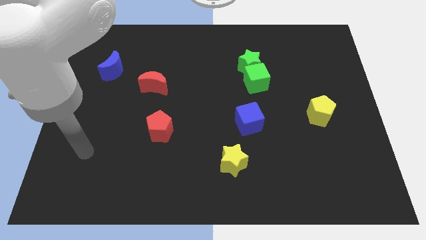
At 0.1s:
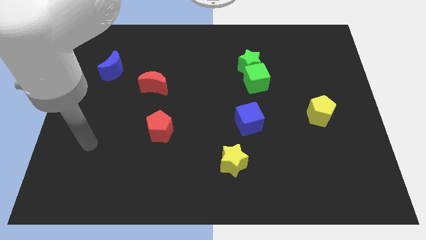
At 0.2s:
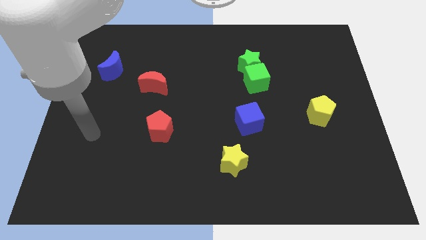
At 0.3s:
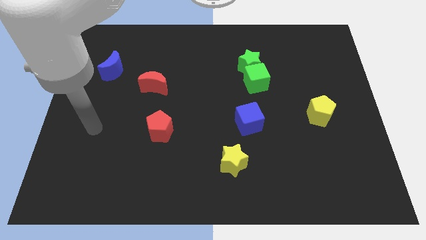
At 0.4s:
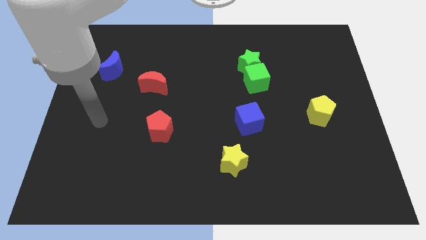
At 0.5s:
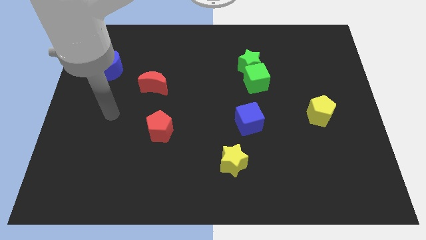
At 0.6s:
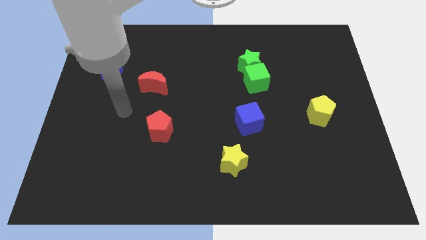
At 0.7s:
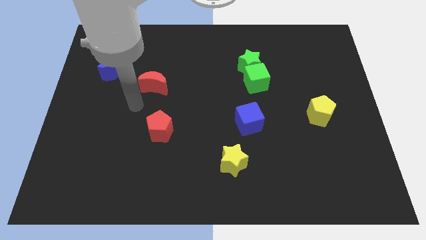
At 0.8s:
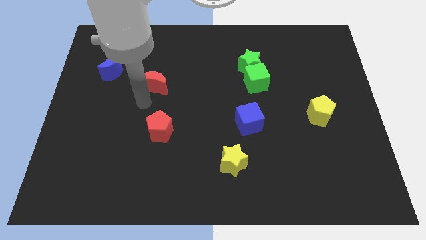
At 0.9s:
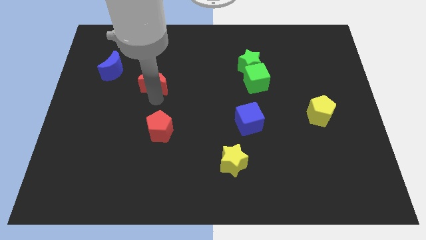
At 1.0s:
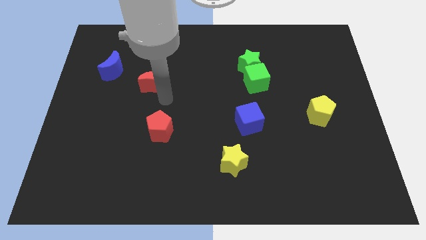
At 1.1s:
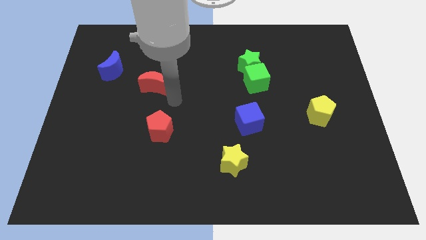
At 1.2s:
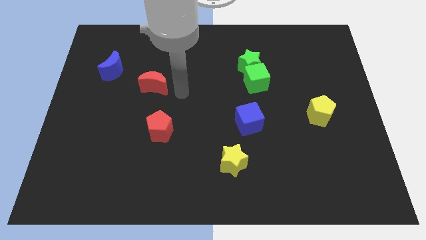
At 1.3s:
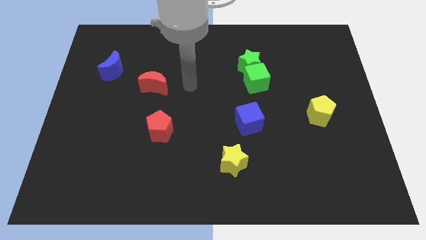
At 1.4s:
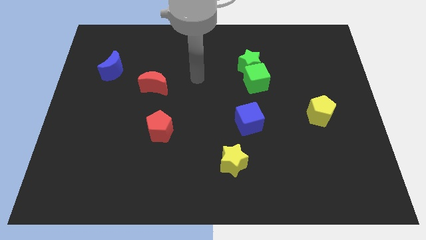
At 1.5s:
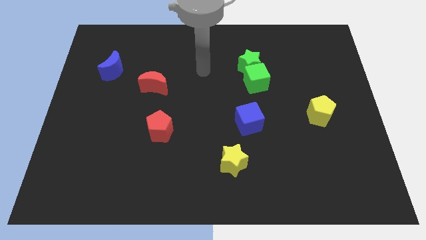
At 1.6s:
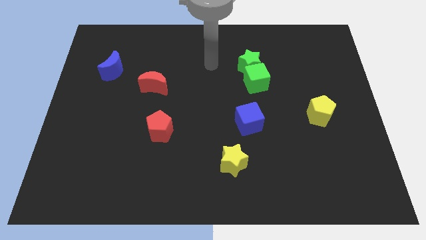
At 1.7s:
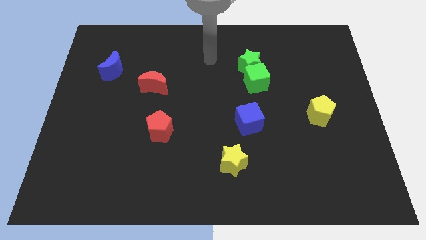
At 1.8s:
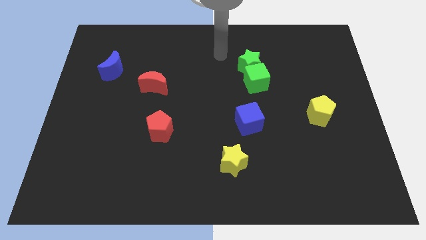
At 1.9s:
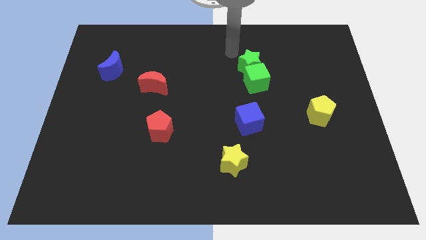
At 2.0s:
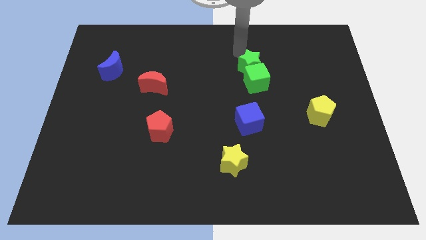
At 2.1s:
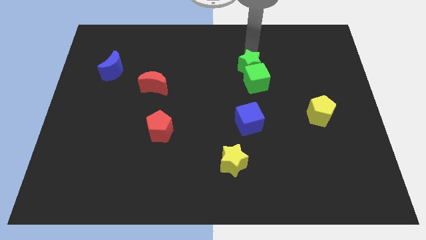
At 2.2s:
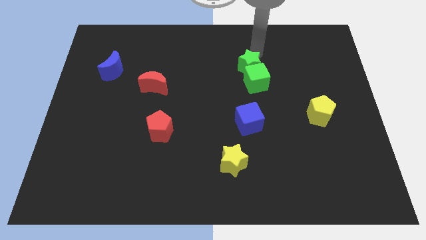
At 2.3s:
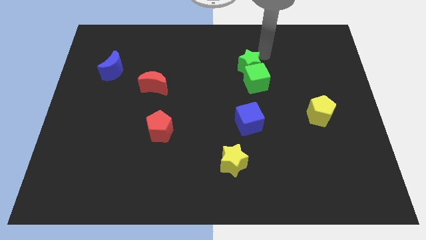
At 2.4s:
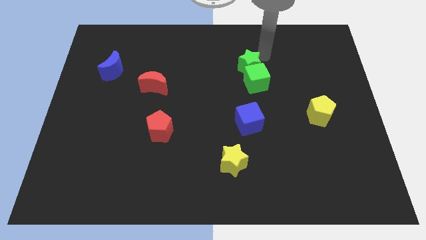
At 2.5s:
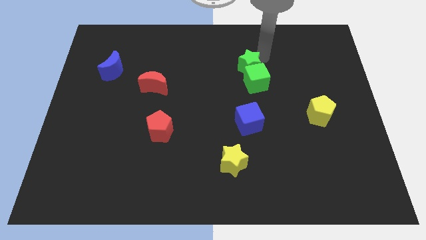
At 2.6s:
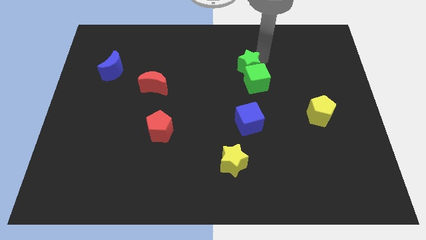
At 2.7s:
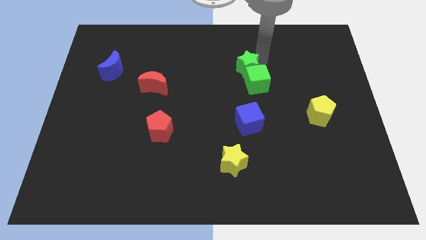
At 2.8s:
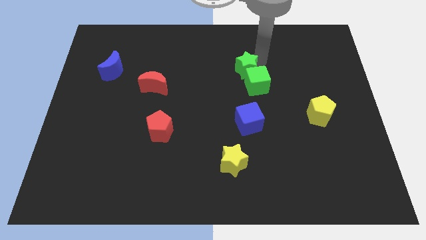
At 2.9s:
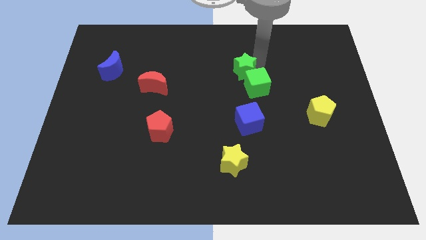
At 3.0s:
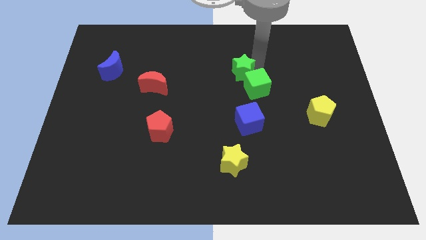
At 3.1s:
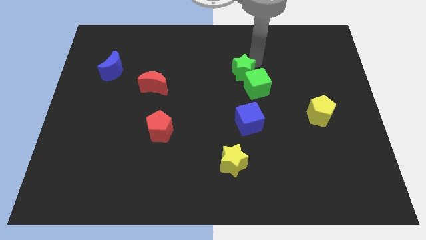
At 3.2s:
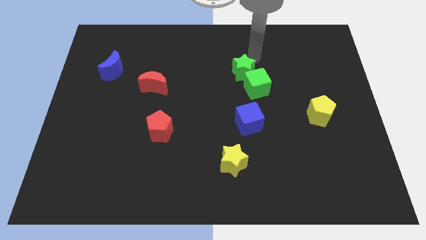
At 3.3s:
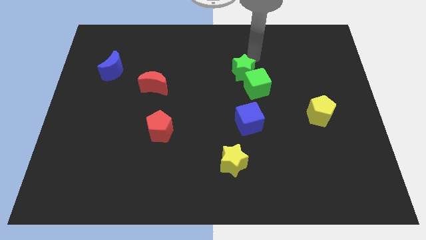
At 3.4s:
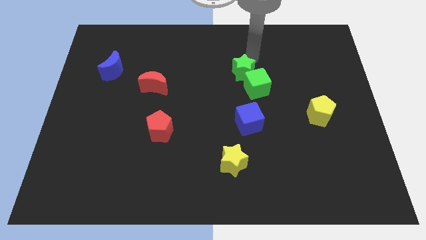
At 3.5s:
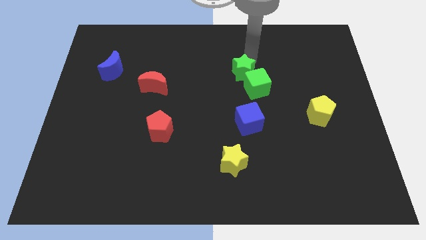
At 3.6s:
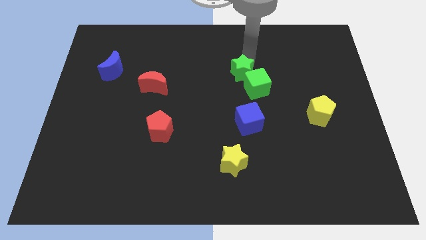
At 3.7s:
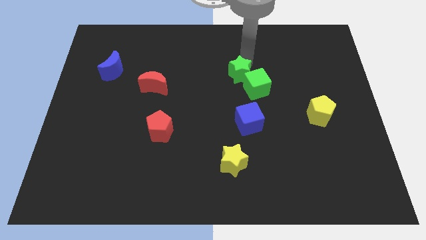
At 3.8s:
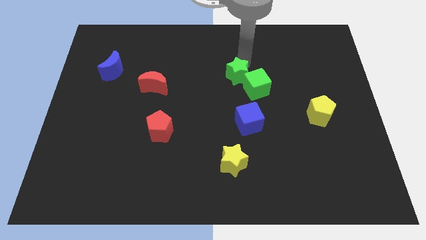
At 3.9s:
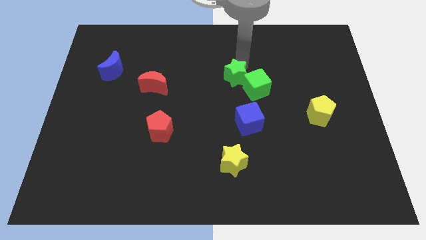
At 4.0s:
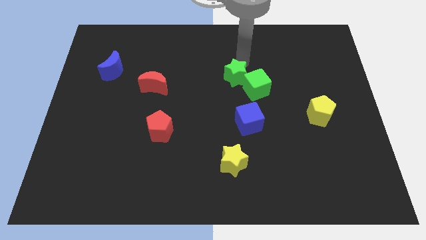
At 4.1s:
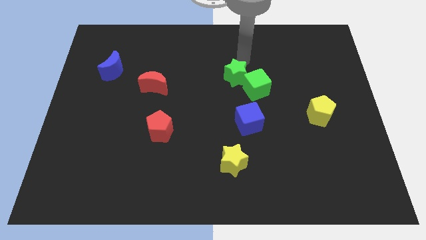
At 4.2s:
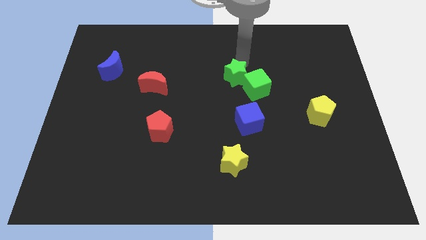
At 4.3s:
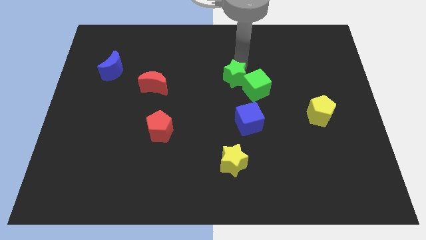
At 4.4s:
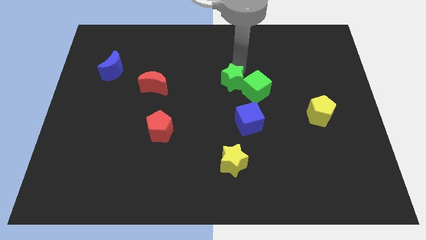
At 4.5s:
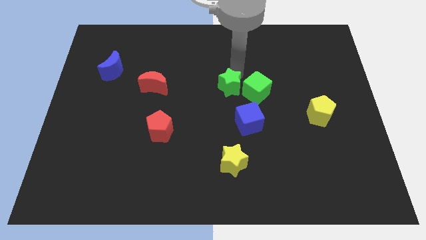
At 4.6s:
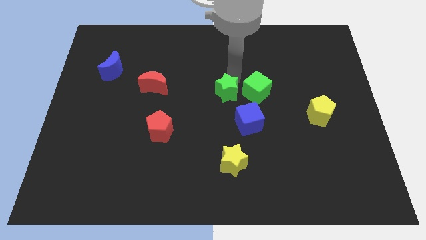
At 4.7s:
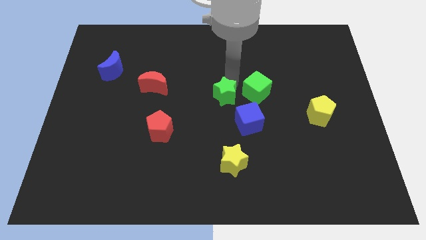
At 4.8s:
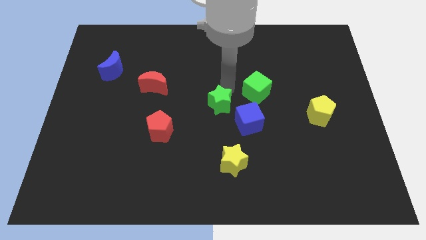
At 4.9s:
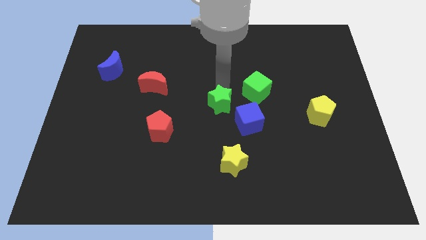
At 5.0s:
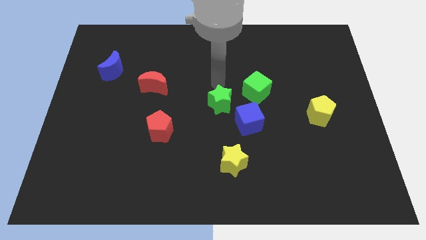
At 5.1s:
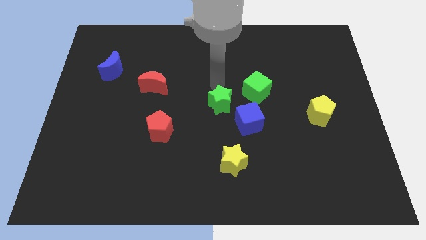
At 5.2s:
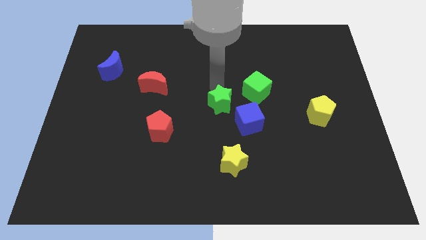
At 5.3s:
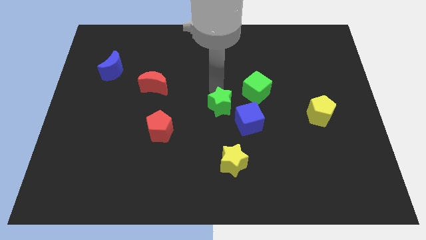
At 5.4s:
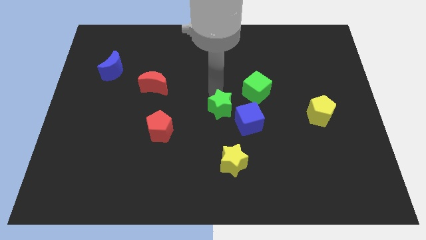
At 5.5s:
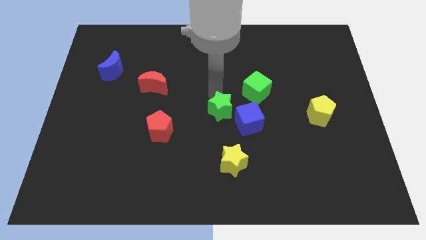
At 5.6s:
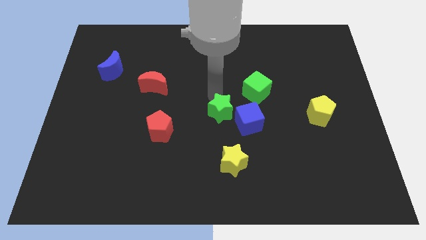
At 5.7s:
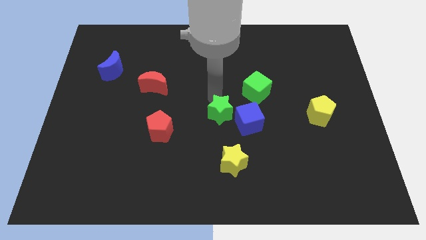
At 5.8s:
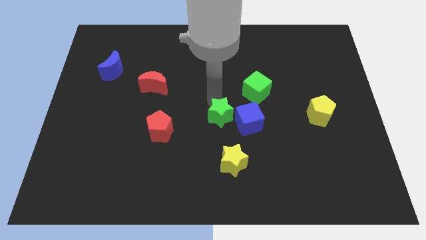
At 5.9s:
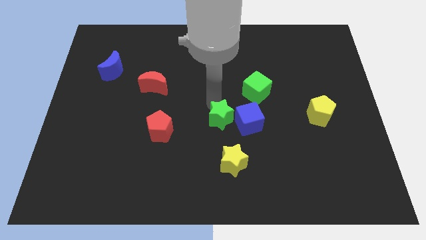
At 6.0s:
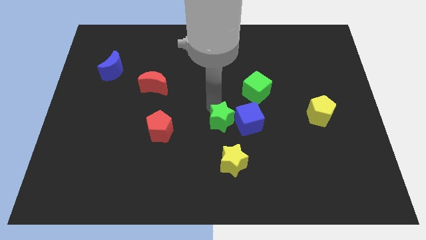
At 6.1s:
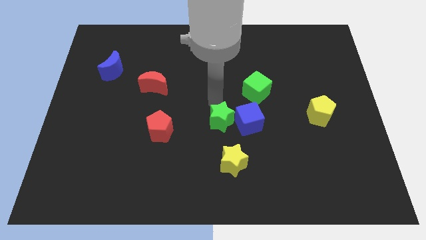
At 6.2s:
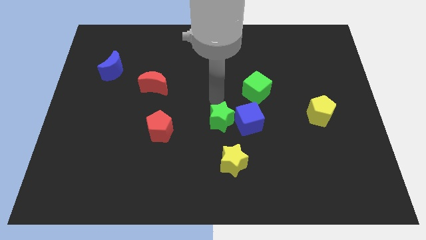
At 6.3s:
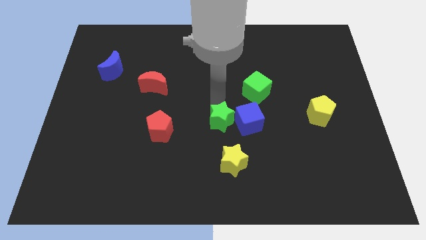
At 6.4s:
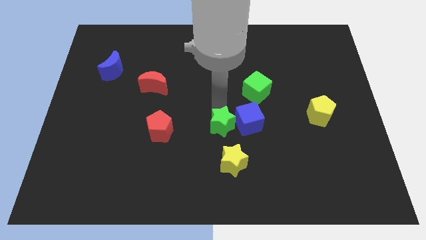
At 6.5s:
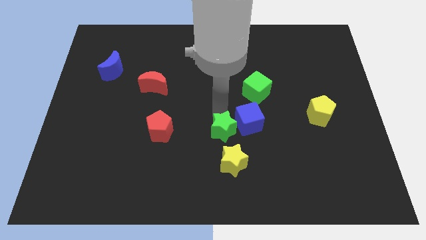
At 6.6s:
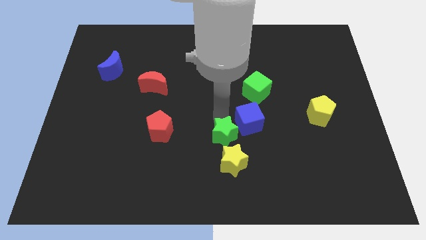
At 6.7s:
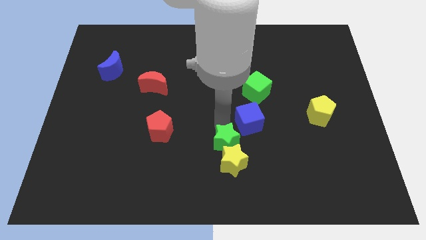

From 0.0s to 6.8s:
slide the green star next to the yellow star
